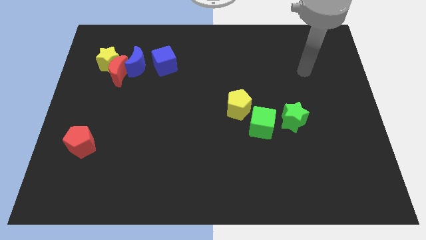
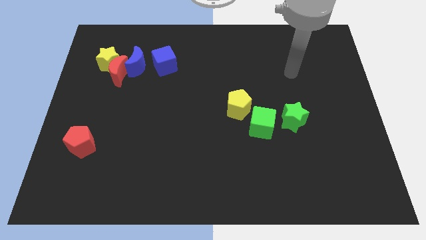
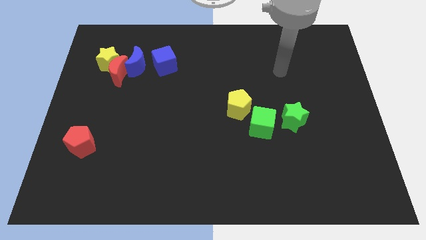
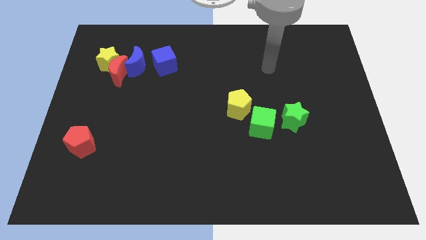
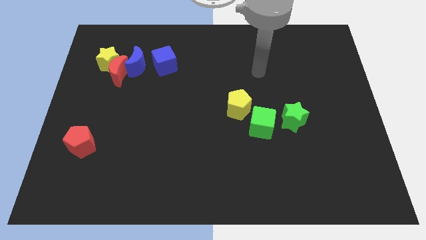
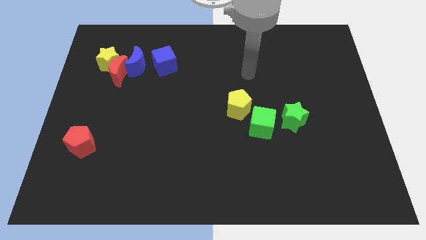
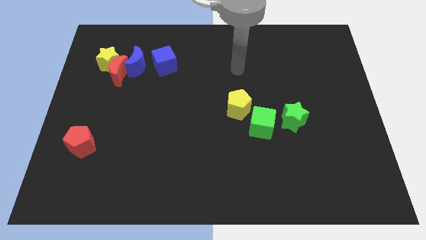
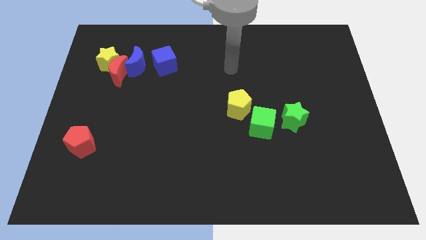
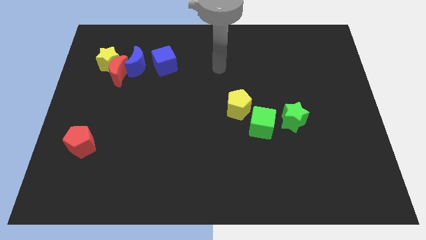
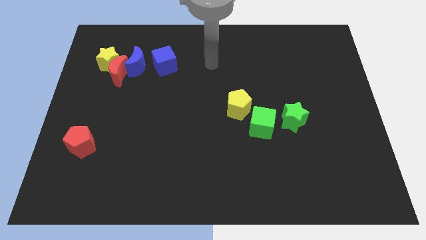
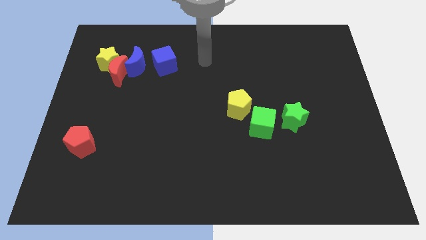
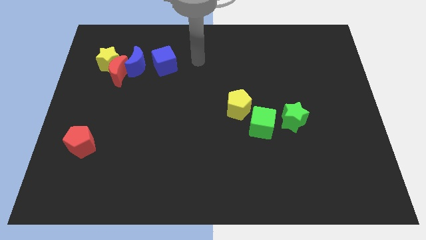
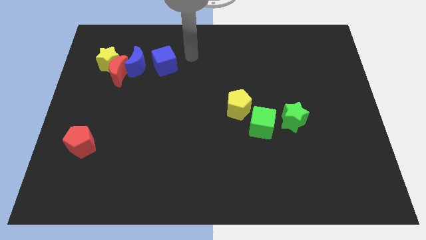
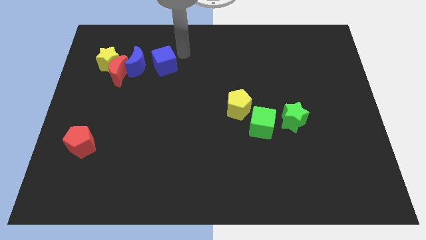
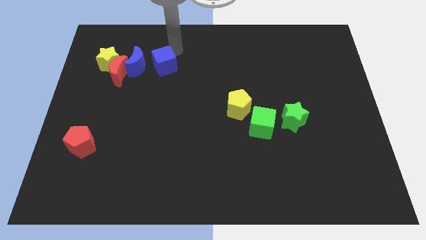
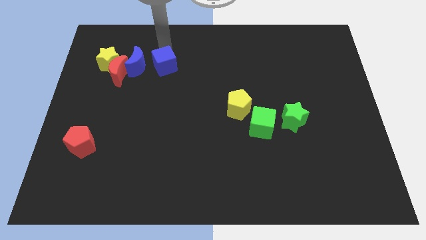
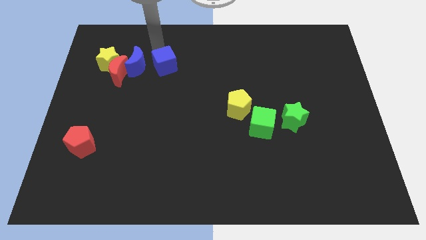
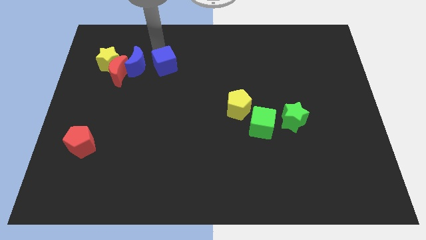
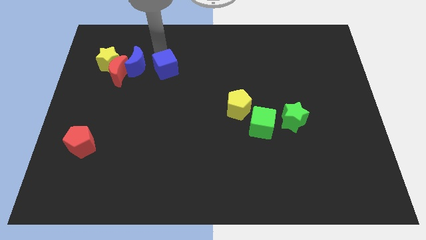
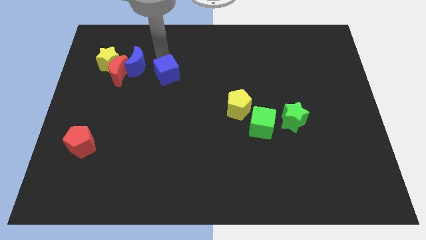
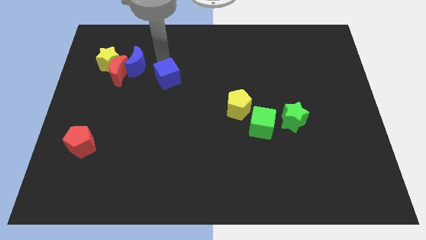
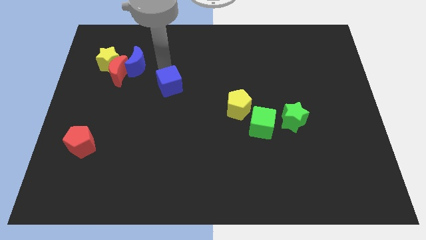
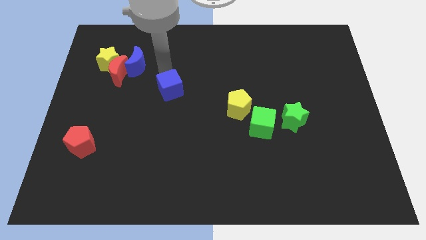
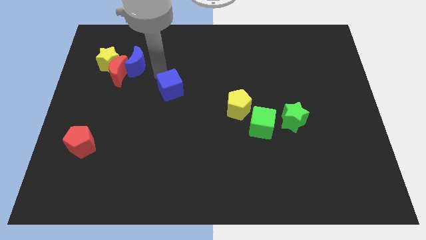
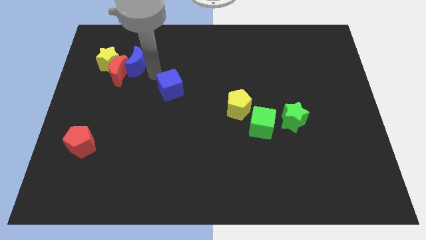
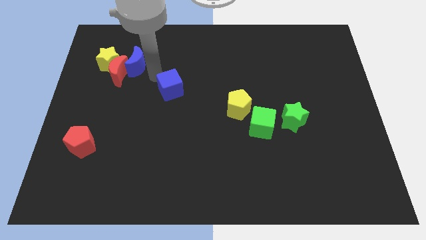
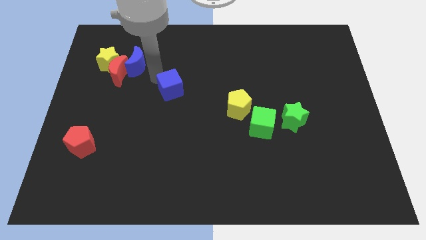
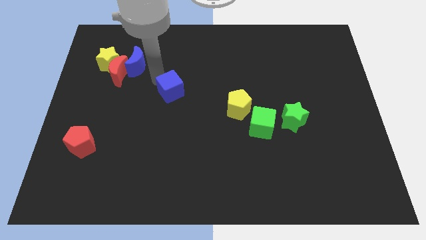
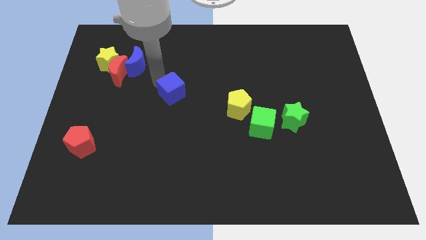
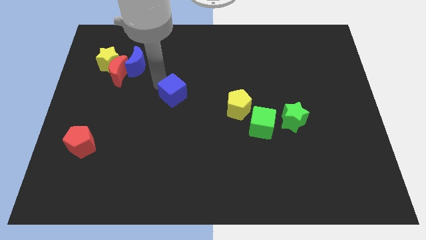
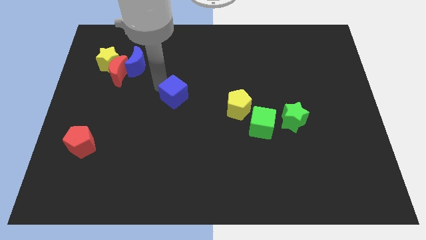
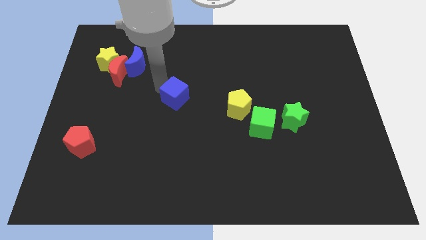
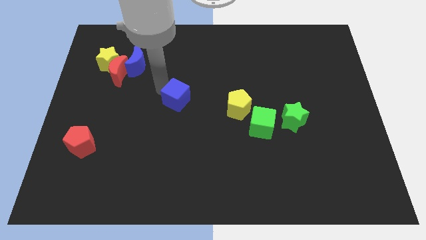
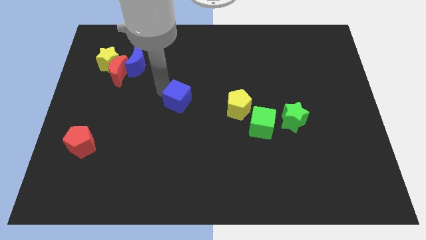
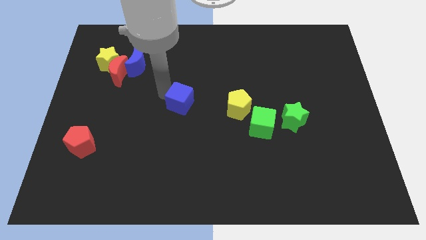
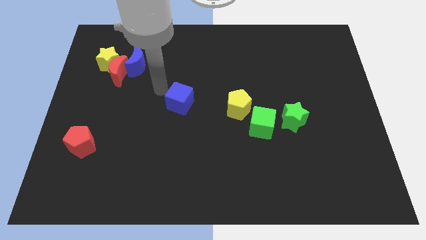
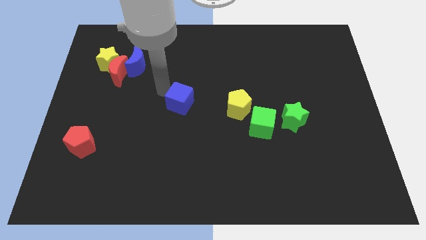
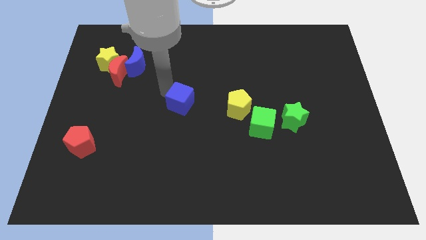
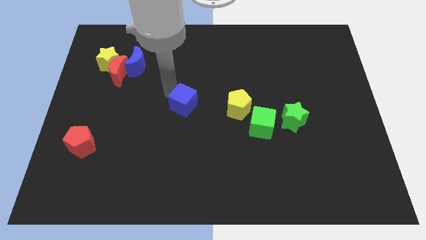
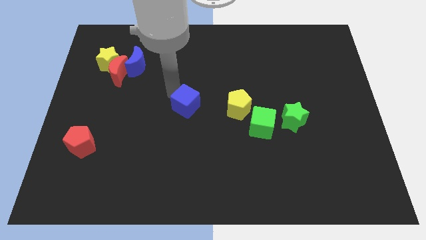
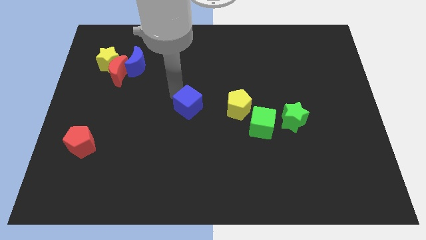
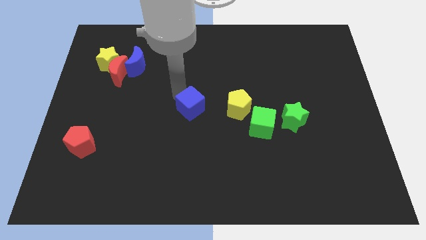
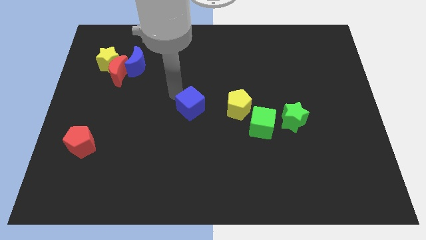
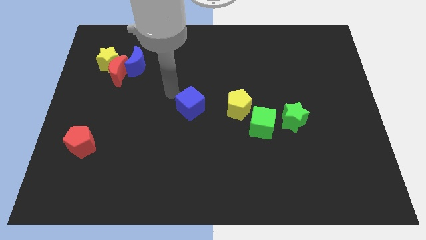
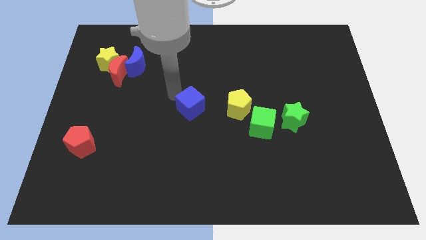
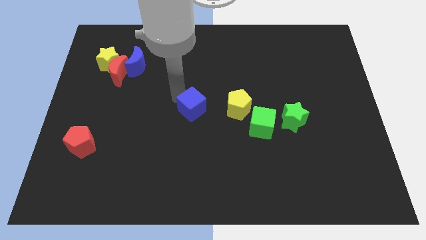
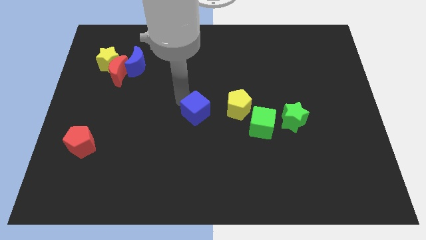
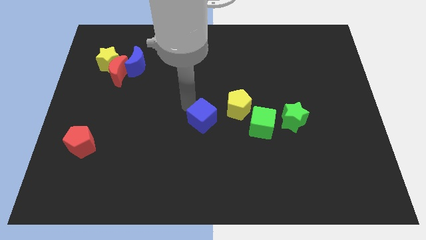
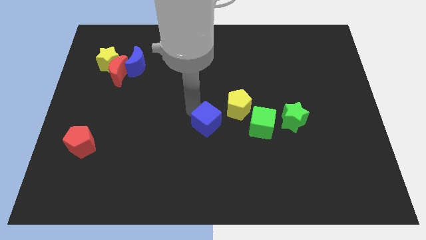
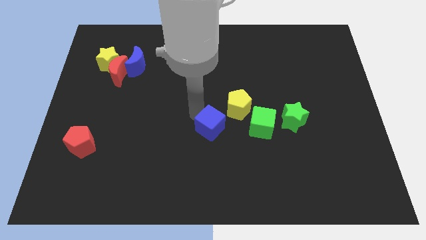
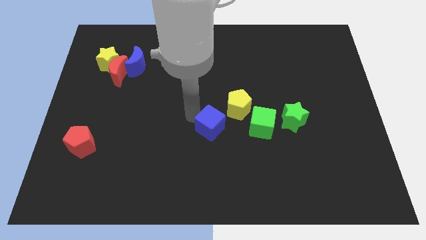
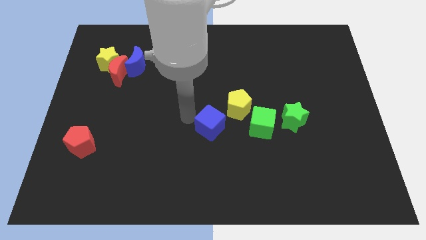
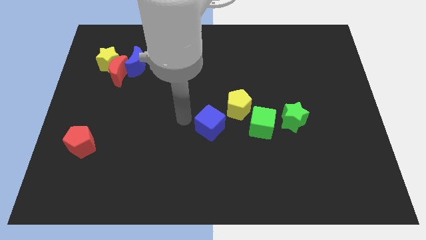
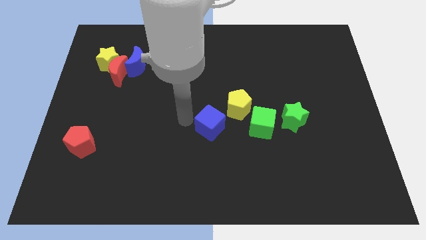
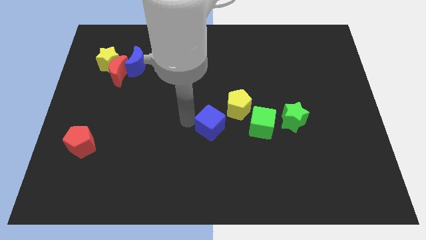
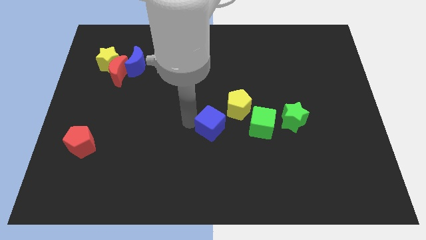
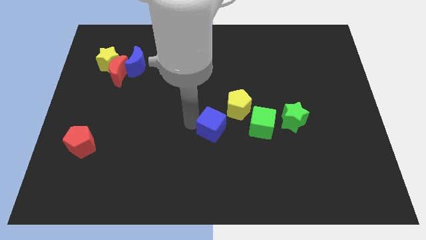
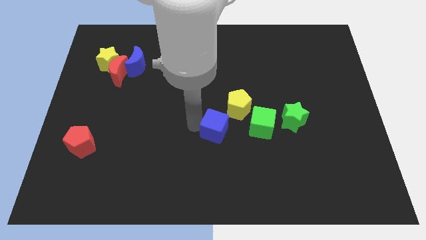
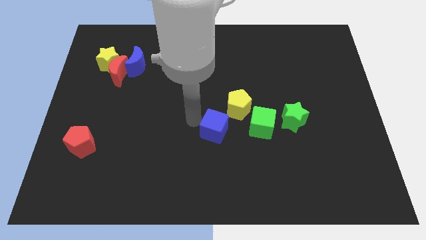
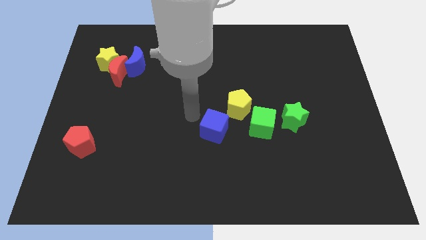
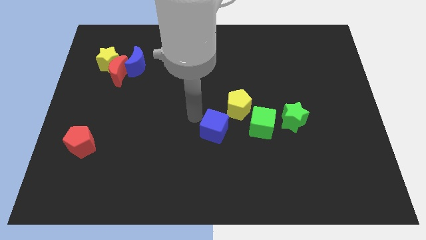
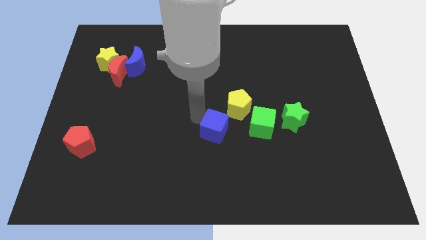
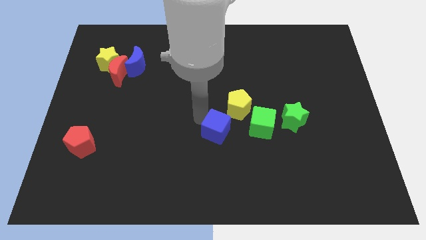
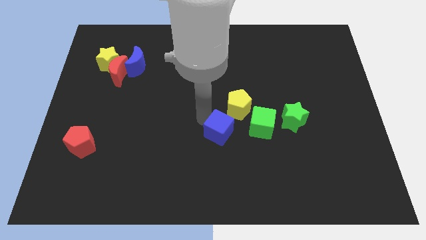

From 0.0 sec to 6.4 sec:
slide the blue cube below the yellow pentagon
